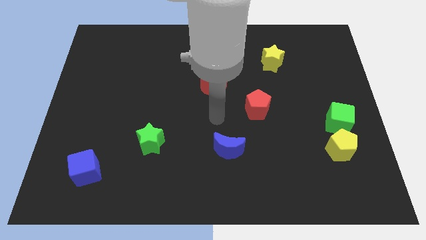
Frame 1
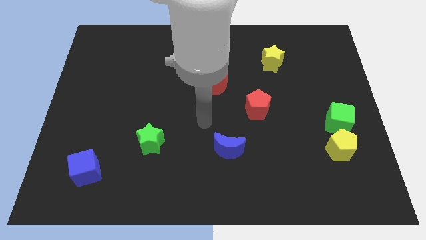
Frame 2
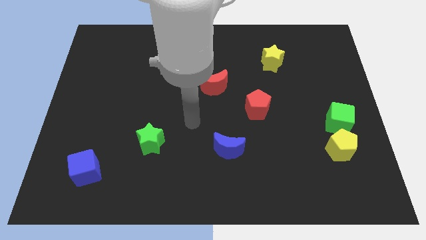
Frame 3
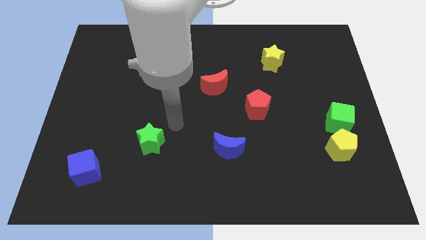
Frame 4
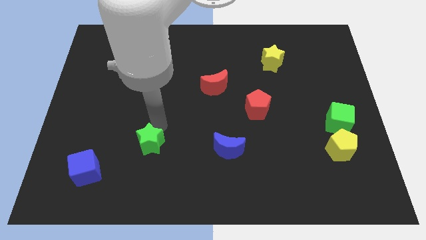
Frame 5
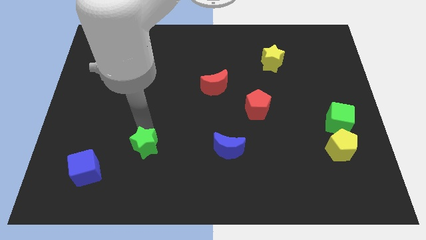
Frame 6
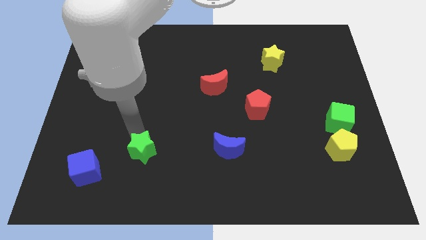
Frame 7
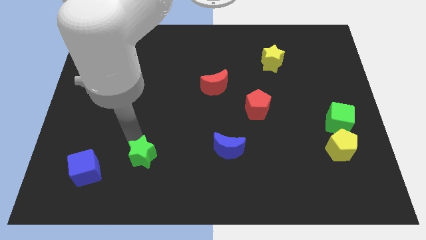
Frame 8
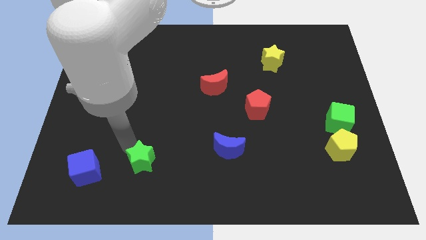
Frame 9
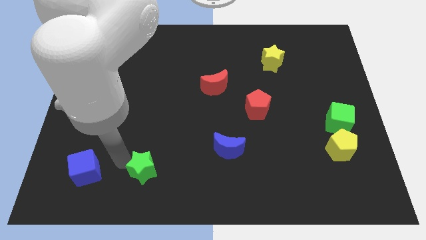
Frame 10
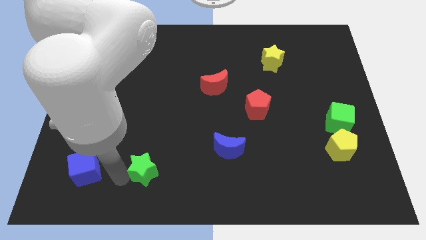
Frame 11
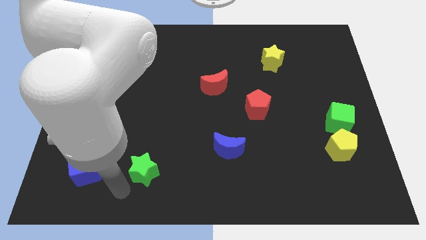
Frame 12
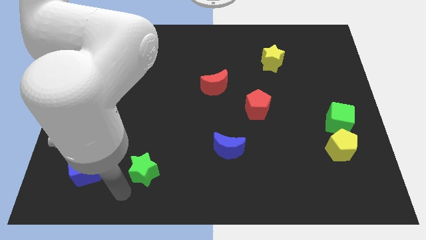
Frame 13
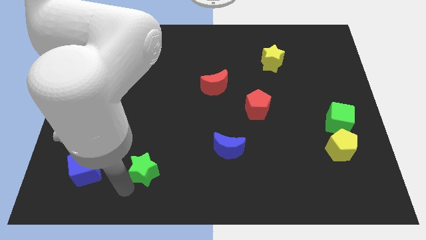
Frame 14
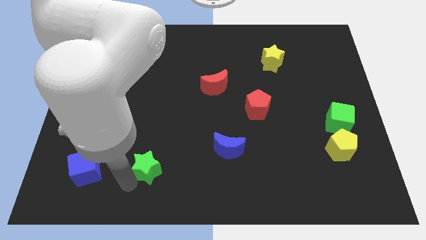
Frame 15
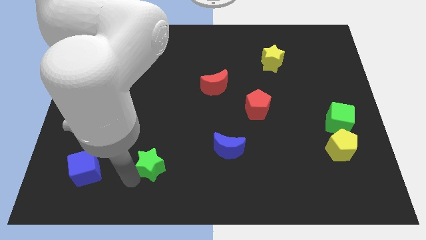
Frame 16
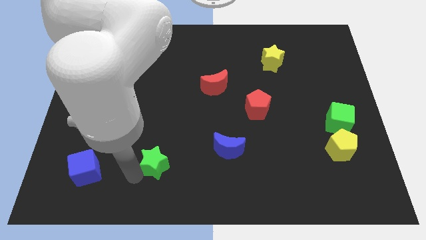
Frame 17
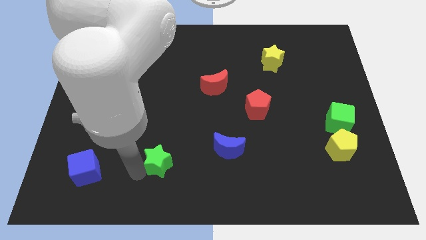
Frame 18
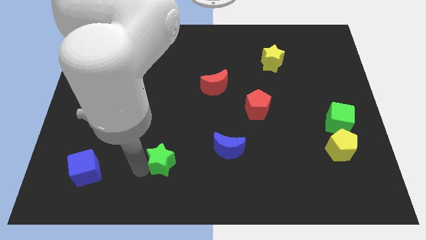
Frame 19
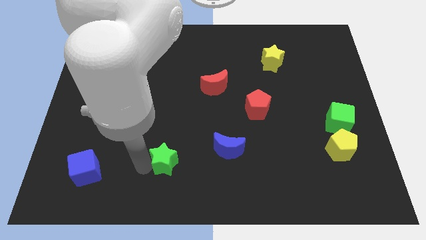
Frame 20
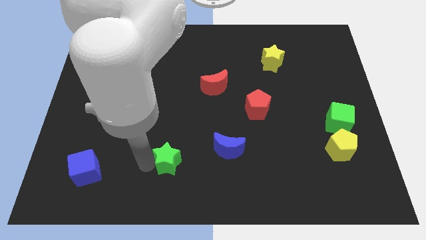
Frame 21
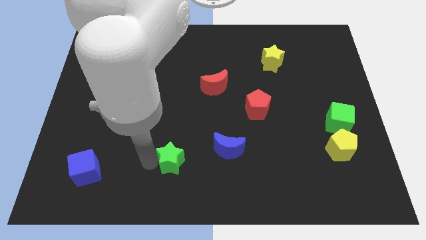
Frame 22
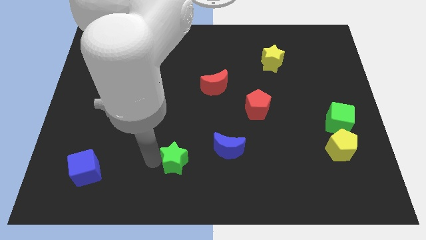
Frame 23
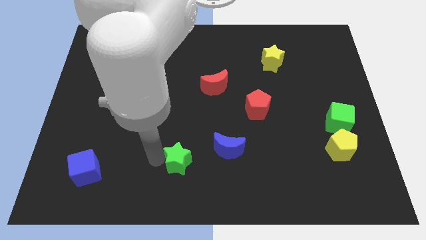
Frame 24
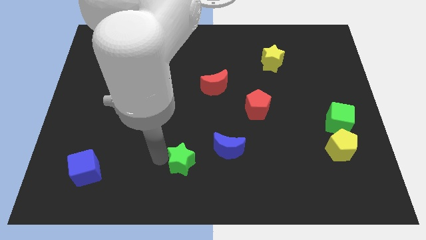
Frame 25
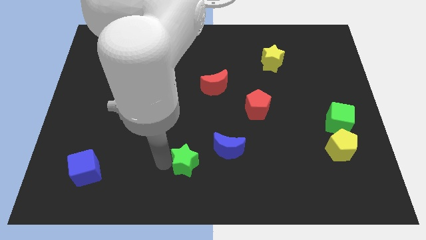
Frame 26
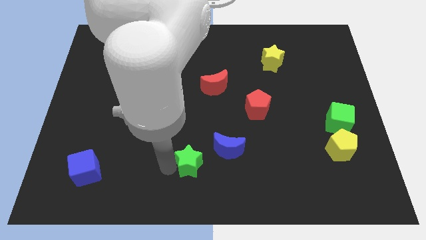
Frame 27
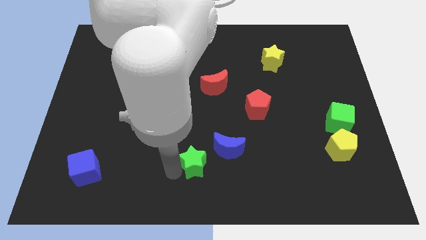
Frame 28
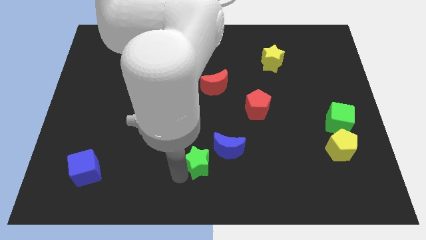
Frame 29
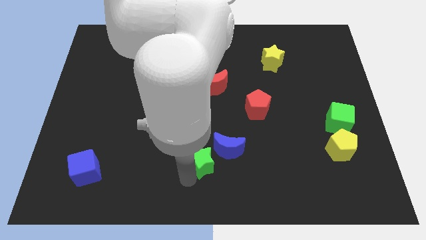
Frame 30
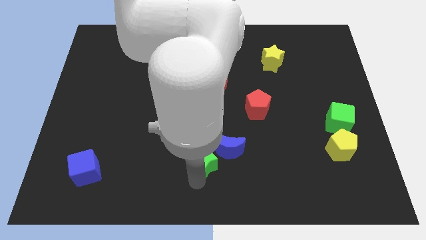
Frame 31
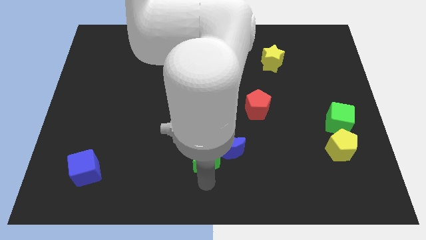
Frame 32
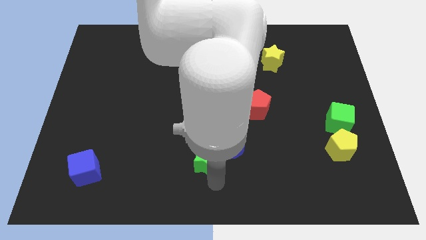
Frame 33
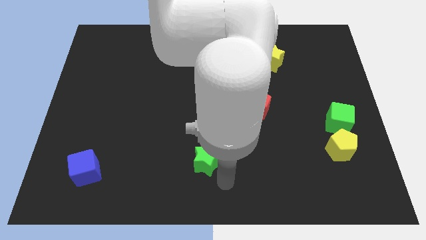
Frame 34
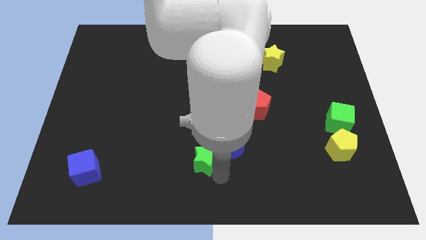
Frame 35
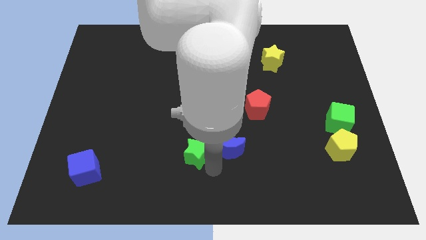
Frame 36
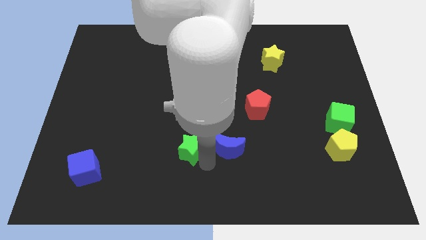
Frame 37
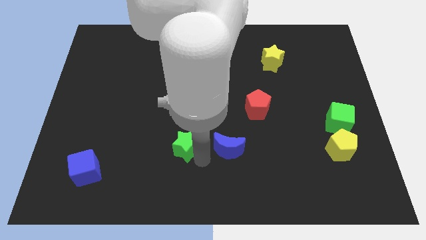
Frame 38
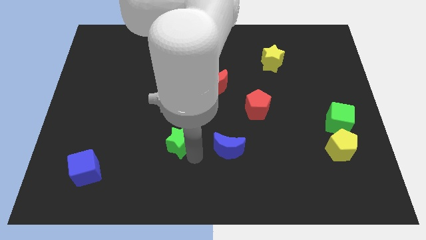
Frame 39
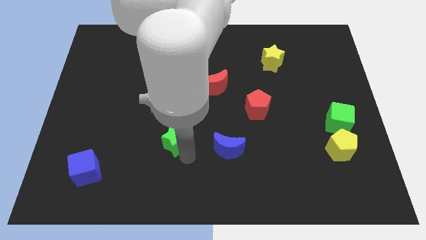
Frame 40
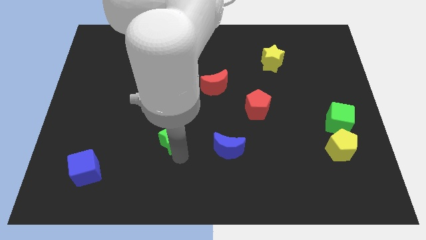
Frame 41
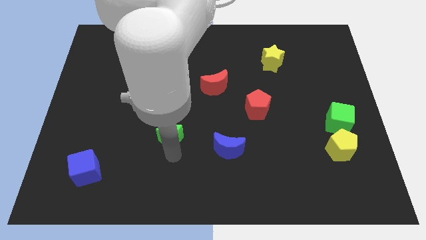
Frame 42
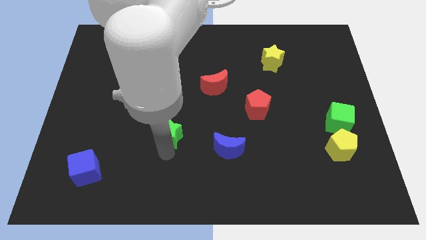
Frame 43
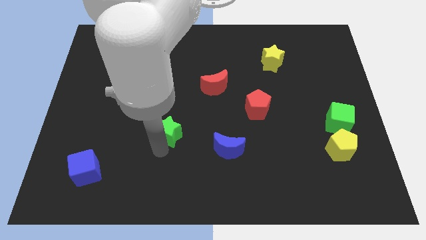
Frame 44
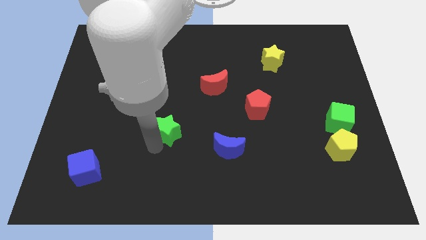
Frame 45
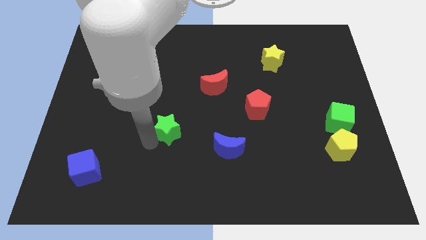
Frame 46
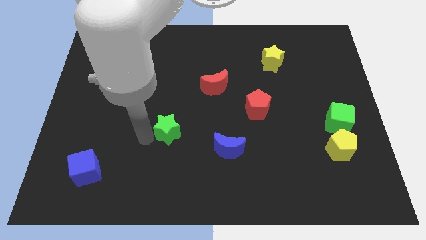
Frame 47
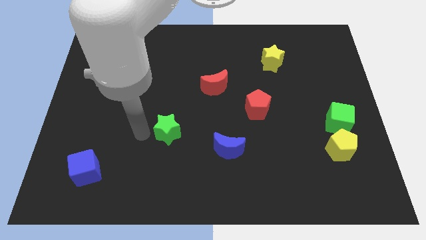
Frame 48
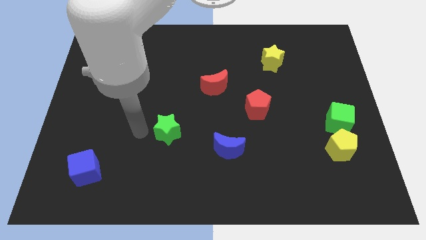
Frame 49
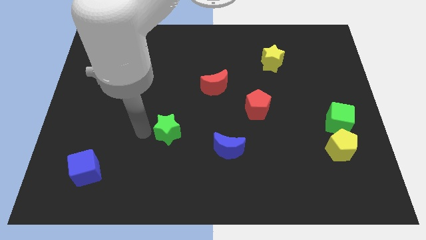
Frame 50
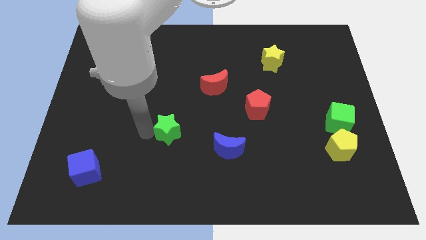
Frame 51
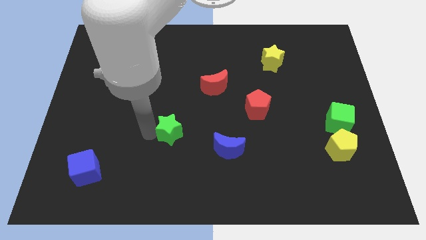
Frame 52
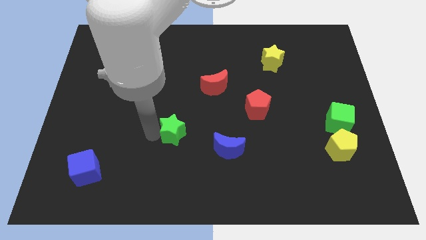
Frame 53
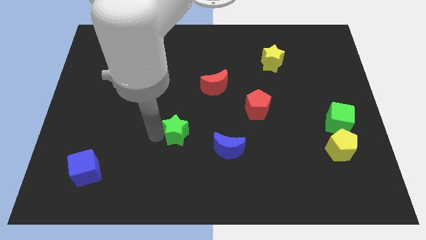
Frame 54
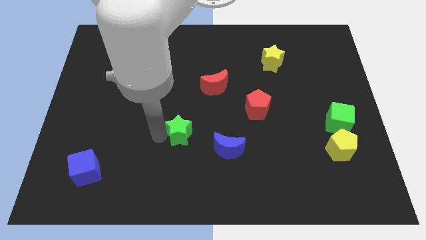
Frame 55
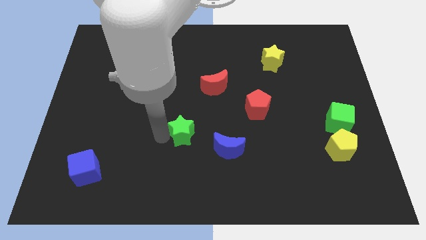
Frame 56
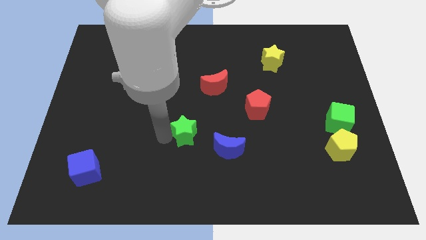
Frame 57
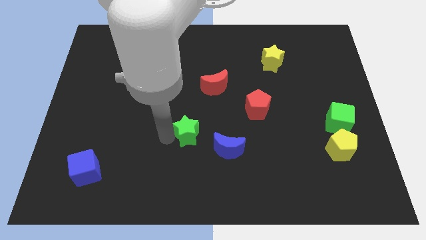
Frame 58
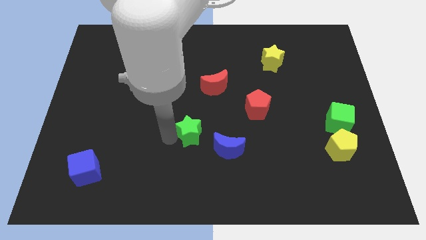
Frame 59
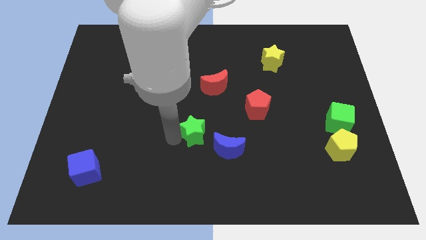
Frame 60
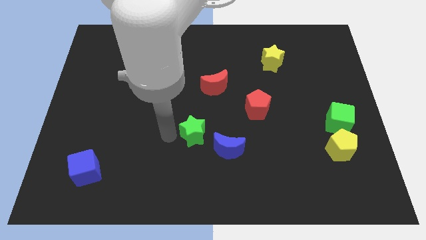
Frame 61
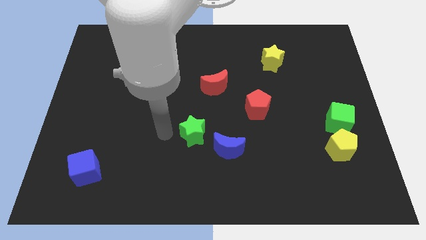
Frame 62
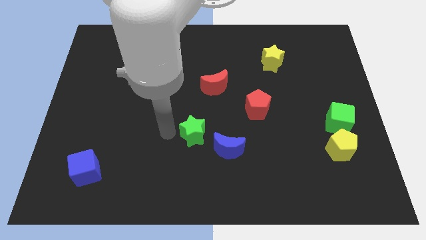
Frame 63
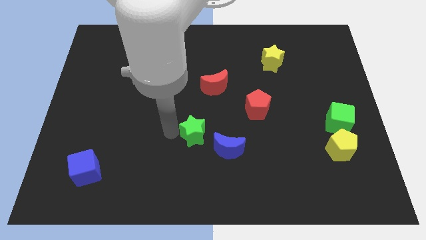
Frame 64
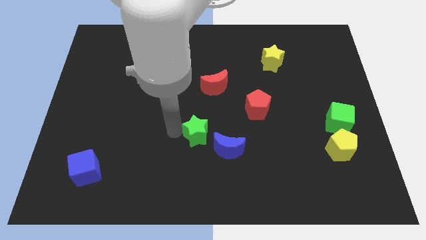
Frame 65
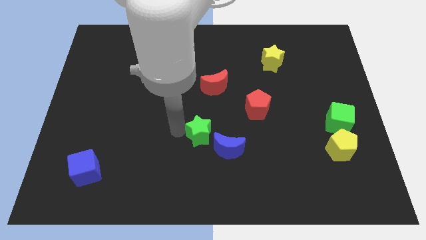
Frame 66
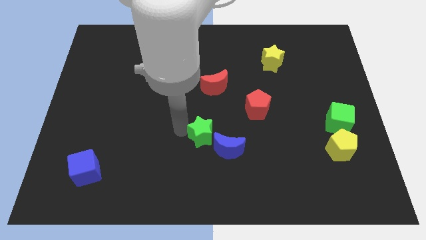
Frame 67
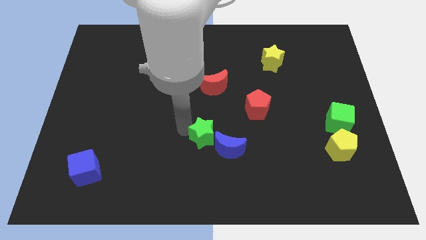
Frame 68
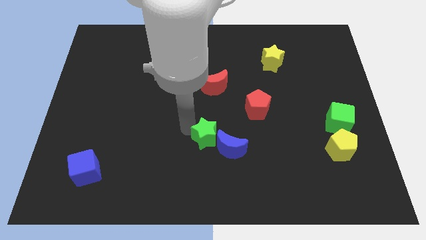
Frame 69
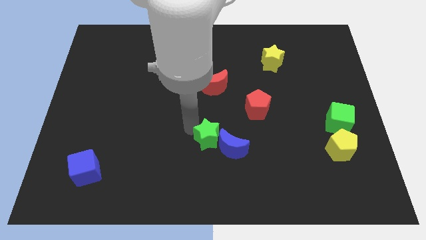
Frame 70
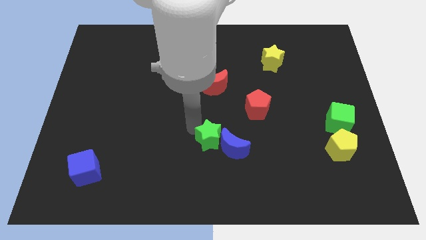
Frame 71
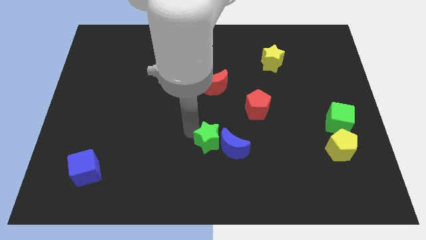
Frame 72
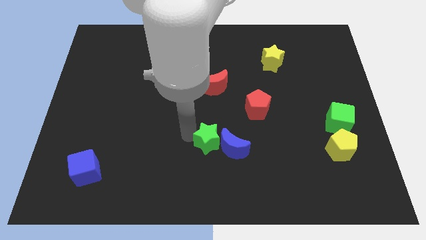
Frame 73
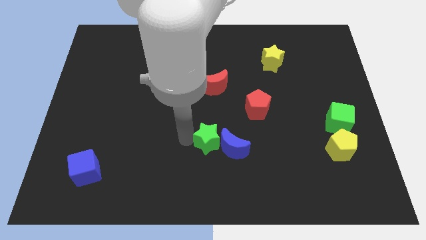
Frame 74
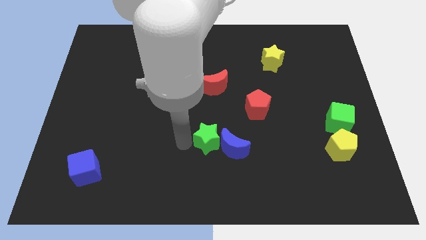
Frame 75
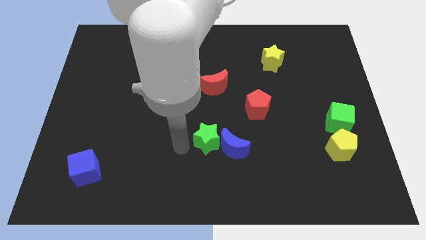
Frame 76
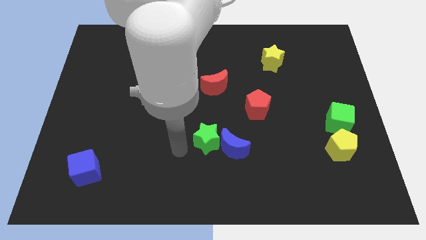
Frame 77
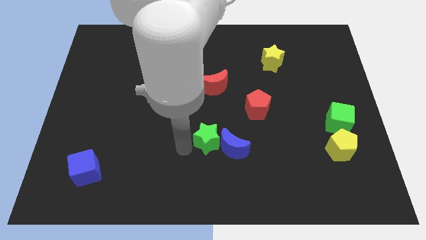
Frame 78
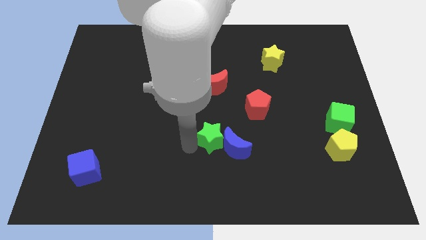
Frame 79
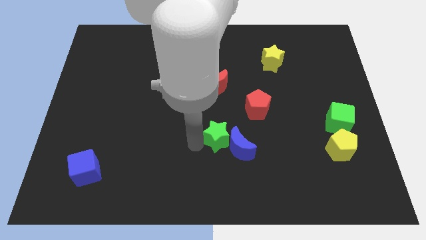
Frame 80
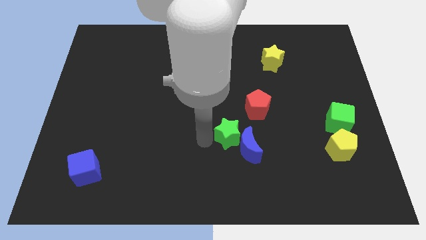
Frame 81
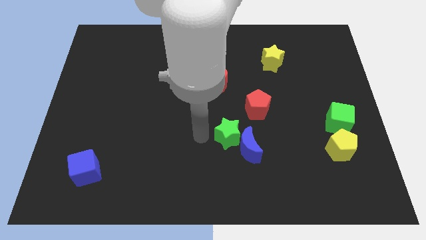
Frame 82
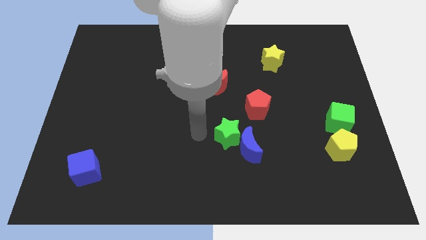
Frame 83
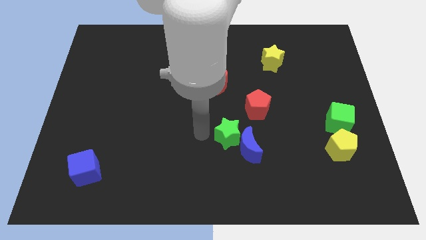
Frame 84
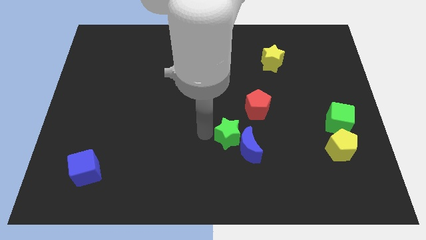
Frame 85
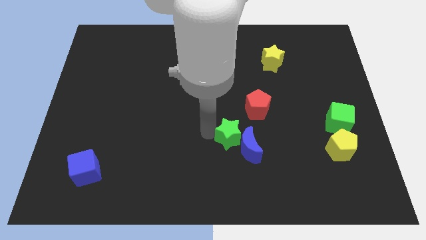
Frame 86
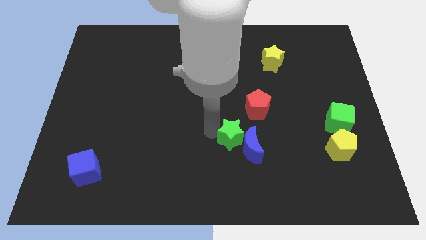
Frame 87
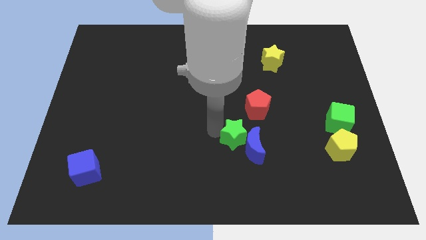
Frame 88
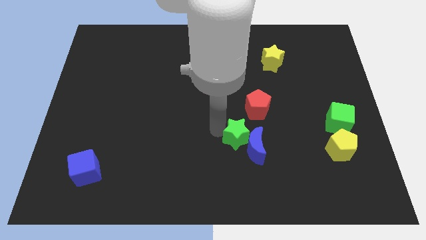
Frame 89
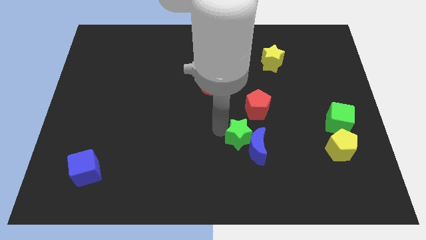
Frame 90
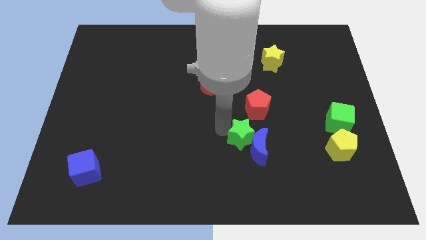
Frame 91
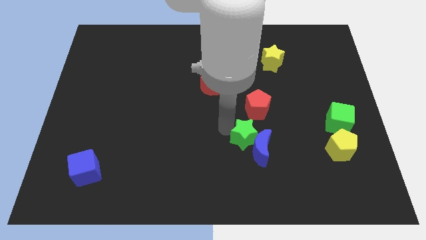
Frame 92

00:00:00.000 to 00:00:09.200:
push the green star right
